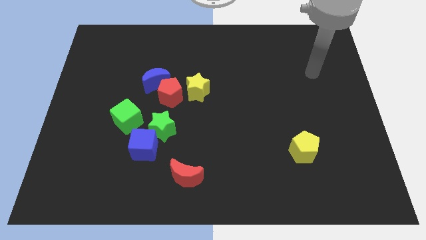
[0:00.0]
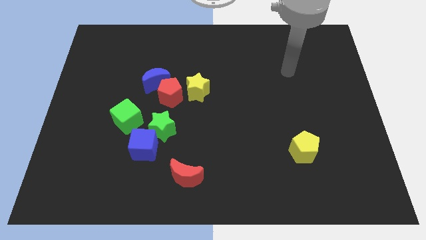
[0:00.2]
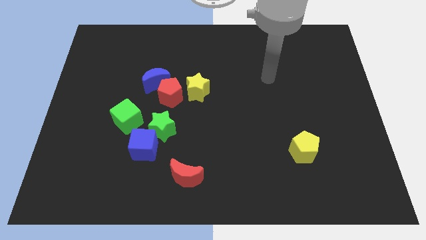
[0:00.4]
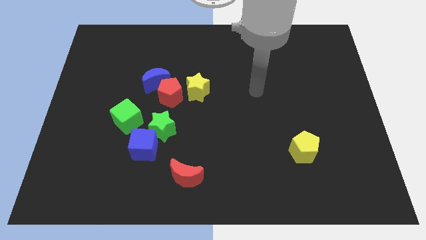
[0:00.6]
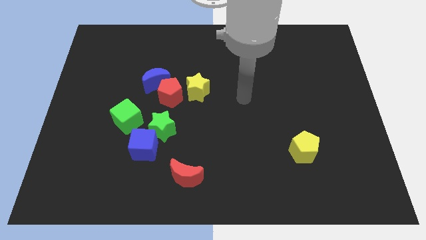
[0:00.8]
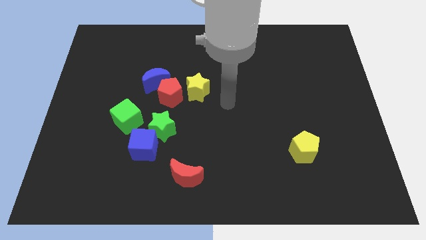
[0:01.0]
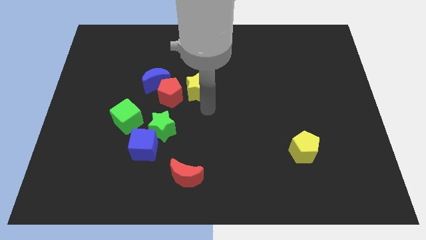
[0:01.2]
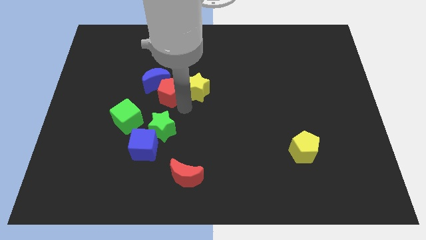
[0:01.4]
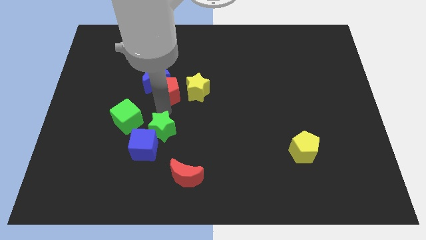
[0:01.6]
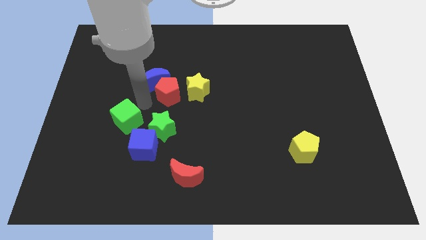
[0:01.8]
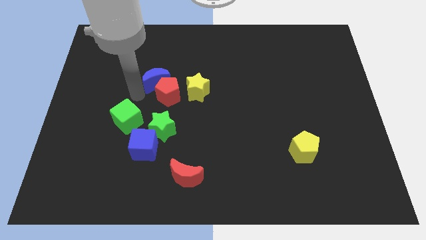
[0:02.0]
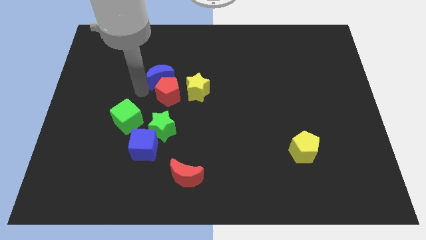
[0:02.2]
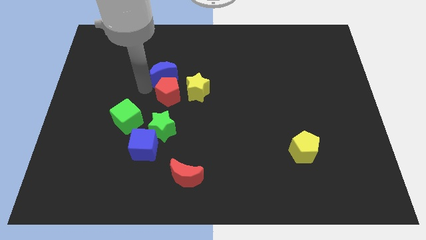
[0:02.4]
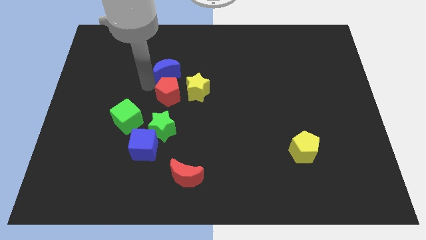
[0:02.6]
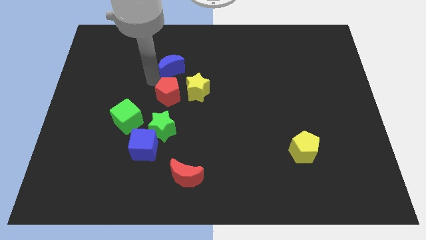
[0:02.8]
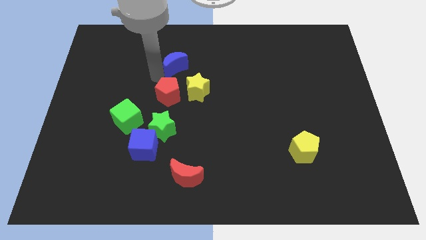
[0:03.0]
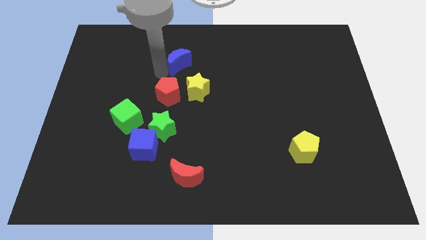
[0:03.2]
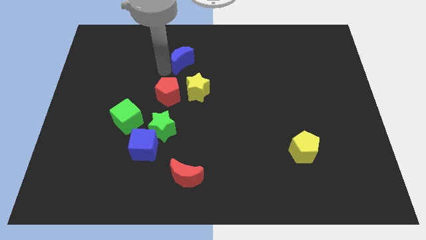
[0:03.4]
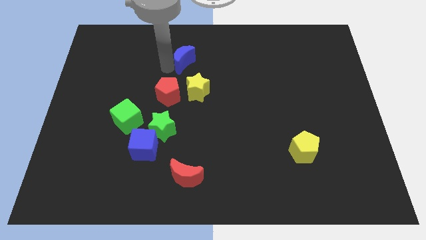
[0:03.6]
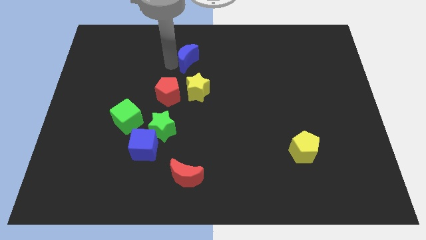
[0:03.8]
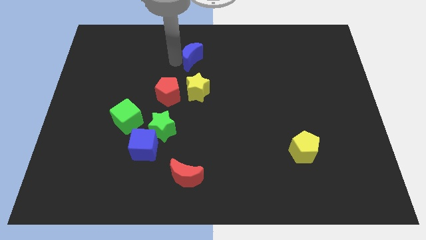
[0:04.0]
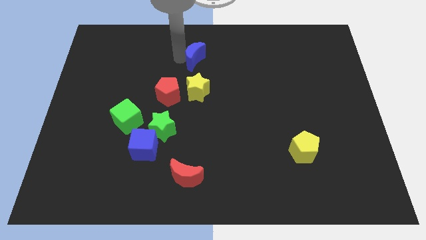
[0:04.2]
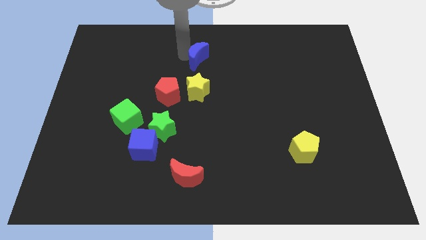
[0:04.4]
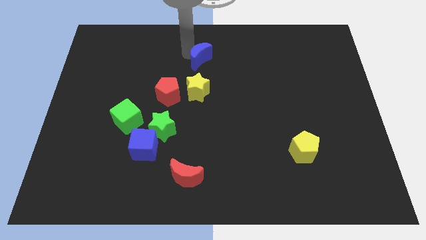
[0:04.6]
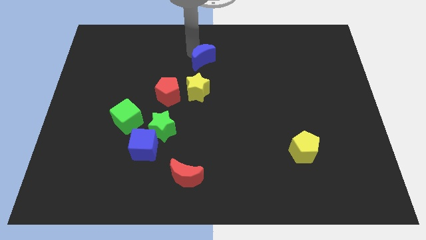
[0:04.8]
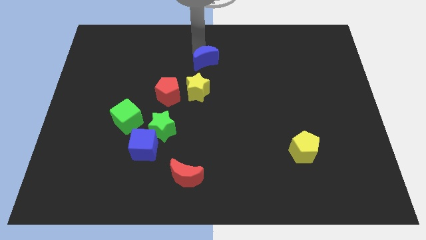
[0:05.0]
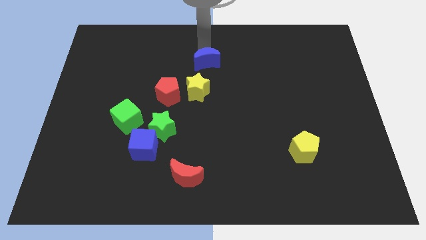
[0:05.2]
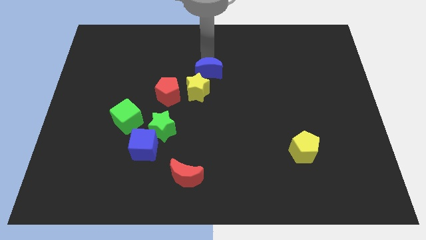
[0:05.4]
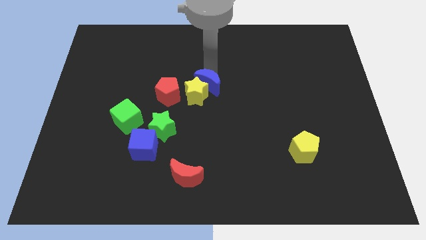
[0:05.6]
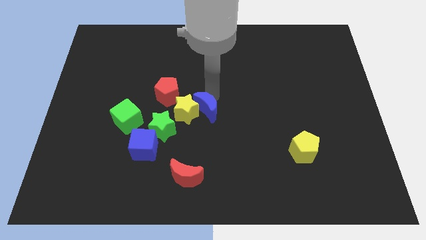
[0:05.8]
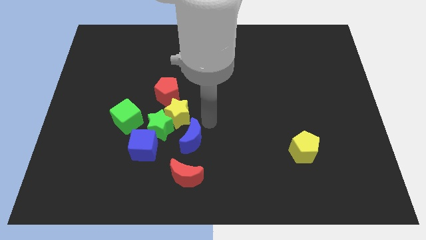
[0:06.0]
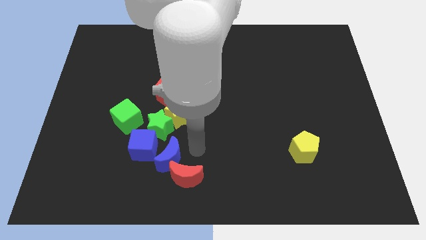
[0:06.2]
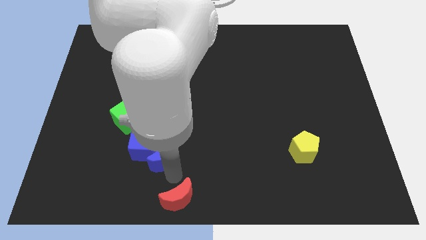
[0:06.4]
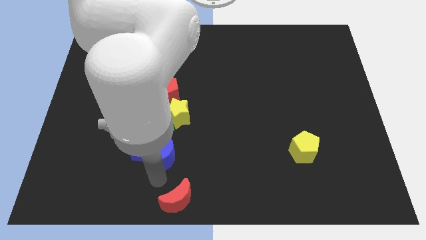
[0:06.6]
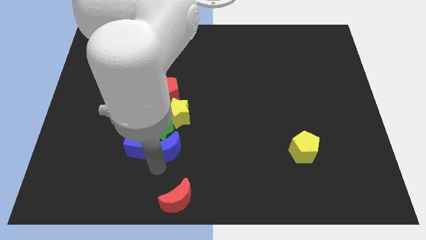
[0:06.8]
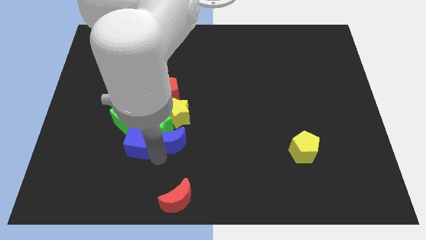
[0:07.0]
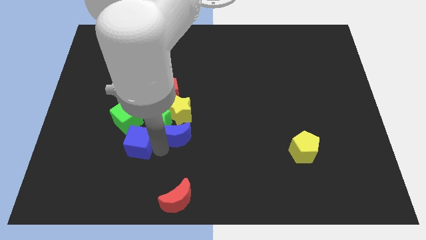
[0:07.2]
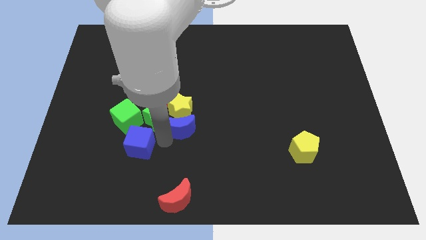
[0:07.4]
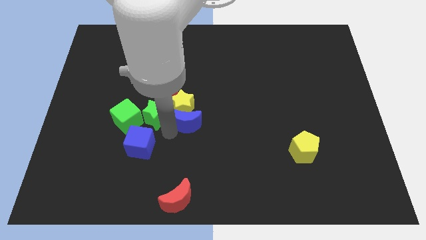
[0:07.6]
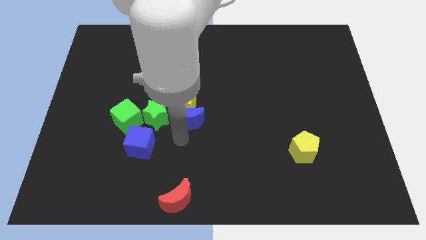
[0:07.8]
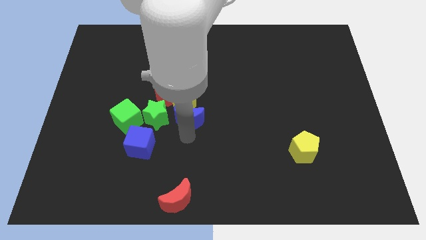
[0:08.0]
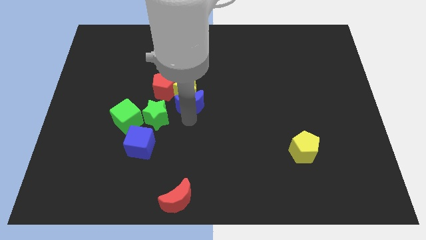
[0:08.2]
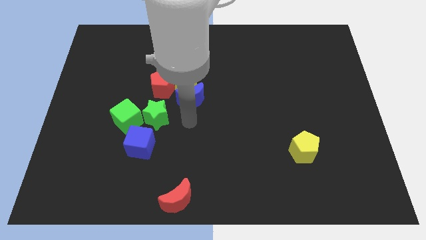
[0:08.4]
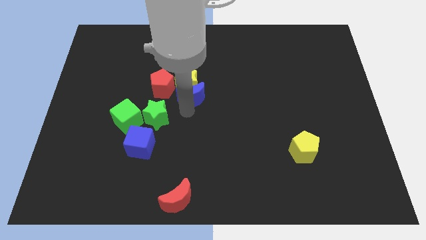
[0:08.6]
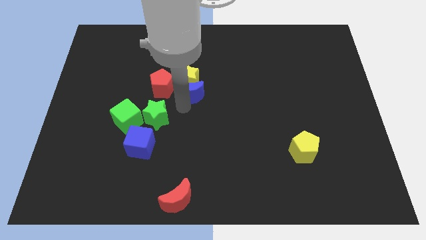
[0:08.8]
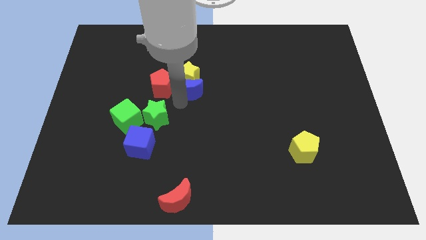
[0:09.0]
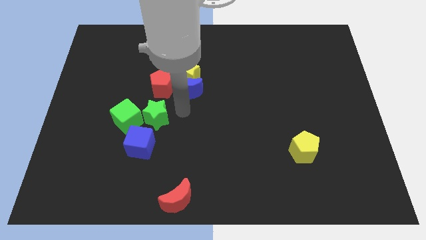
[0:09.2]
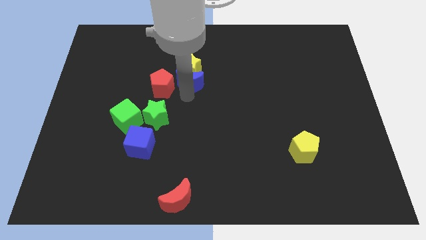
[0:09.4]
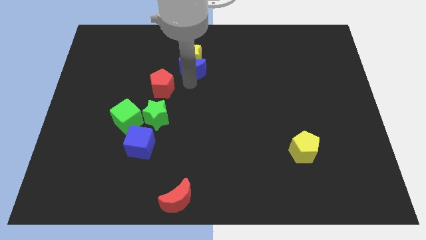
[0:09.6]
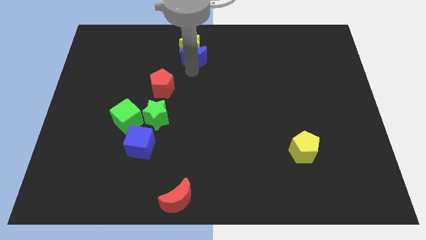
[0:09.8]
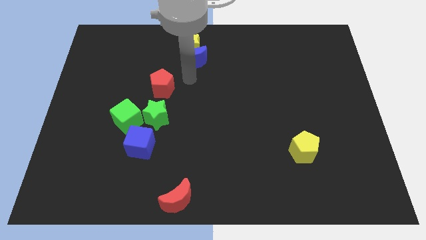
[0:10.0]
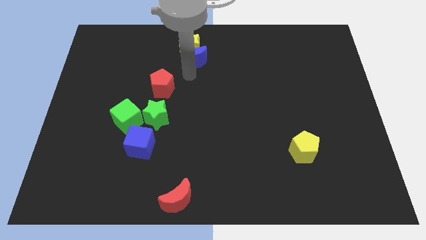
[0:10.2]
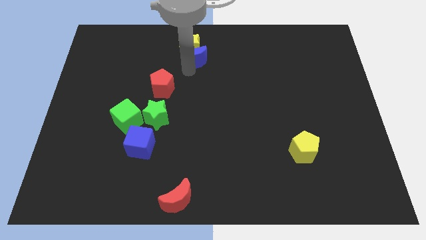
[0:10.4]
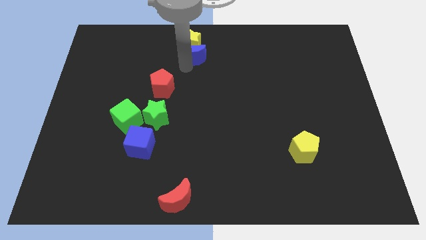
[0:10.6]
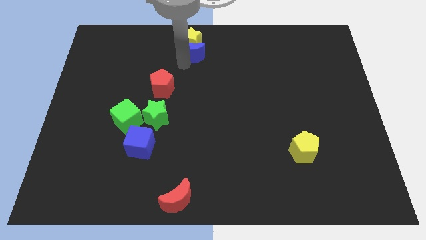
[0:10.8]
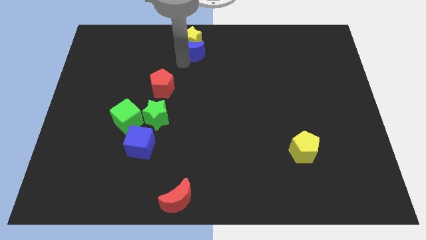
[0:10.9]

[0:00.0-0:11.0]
push the blue moon to the top
